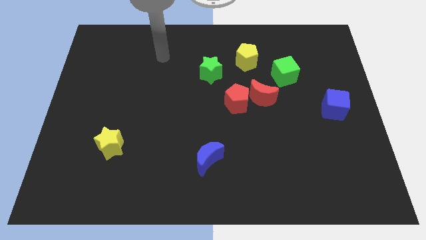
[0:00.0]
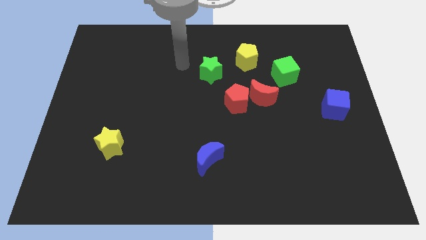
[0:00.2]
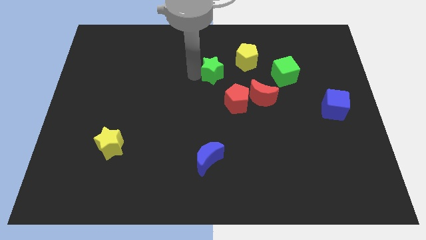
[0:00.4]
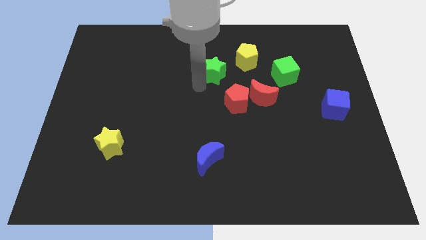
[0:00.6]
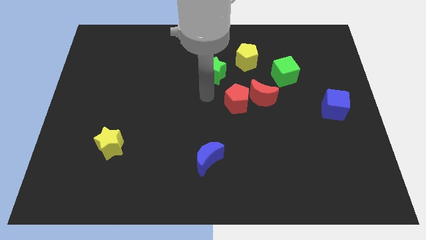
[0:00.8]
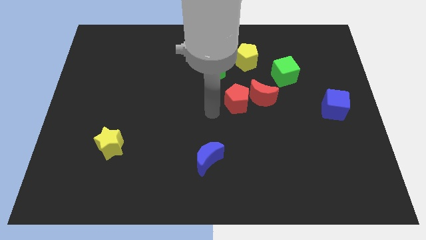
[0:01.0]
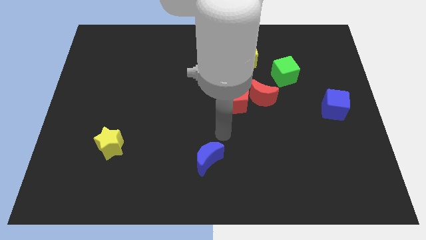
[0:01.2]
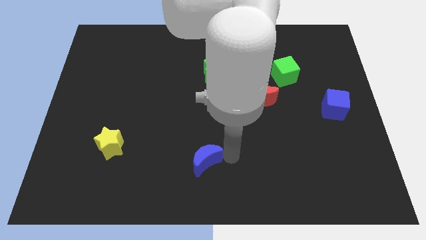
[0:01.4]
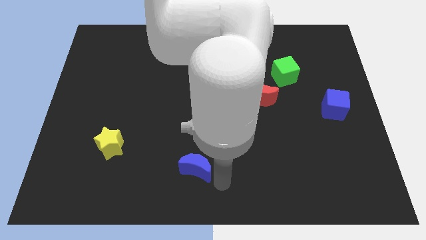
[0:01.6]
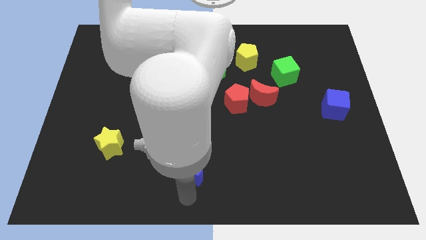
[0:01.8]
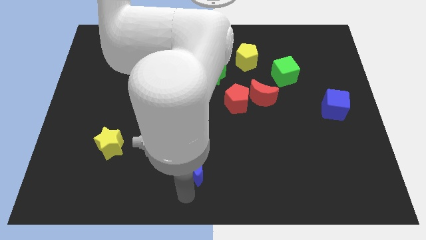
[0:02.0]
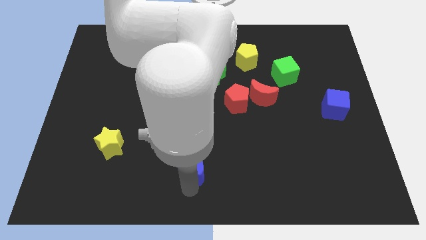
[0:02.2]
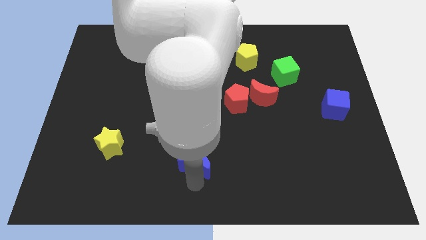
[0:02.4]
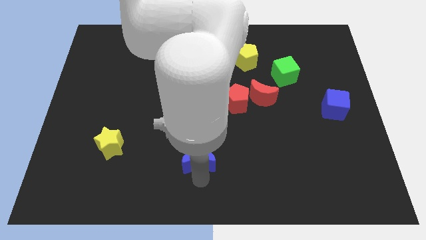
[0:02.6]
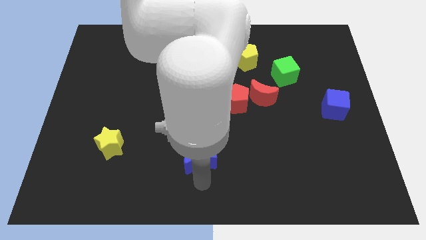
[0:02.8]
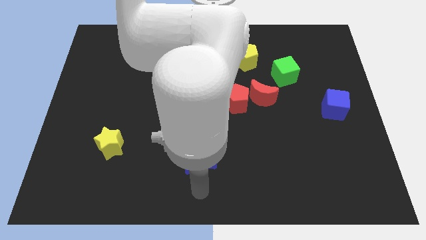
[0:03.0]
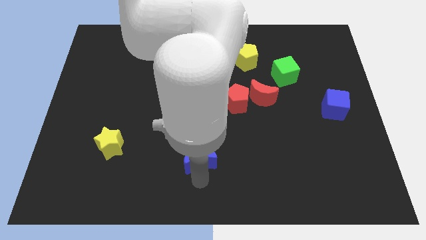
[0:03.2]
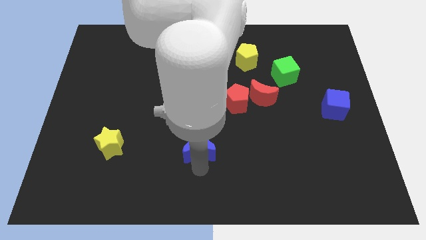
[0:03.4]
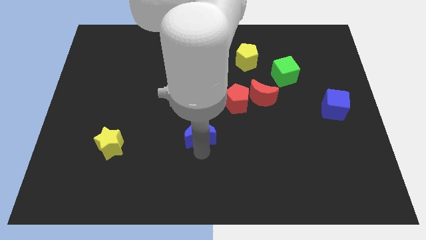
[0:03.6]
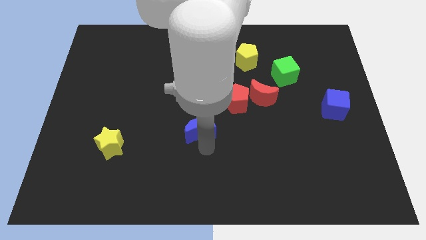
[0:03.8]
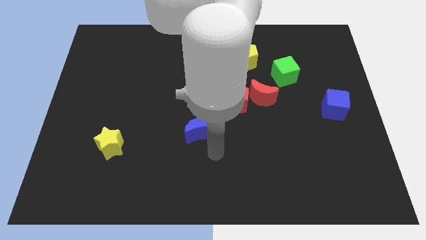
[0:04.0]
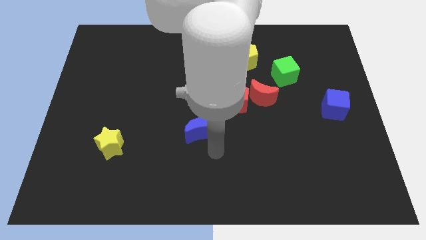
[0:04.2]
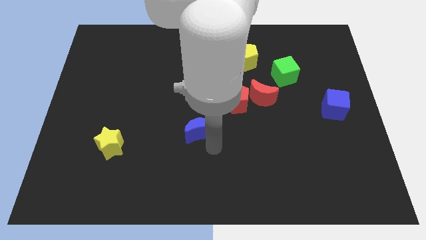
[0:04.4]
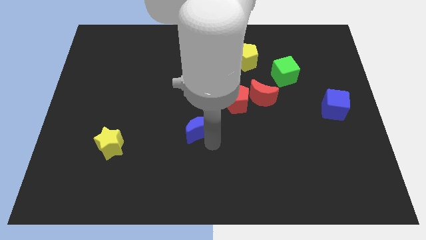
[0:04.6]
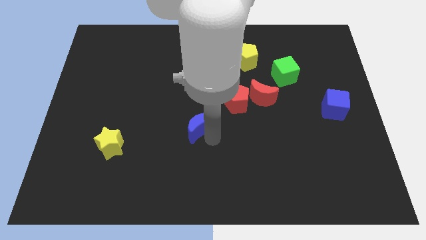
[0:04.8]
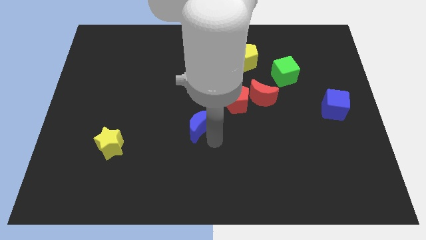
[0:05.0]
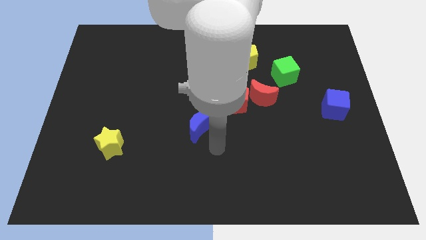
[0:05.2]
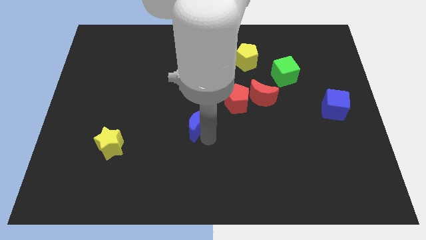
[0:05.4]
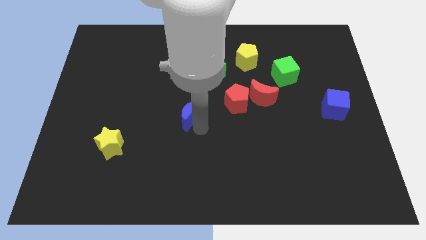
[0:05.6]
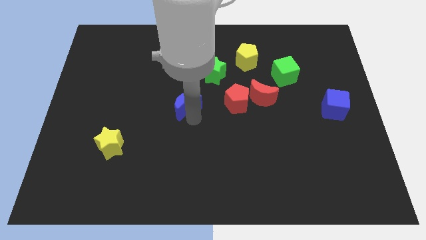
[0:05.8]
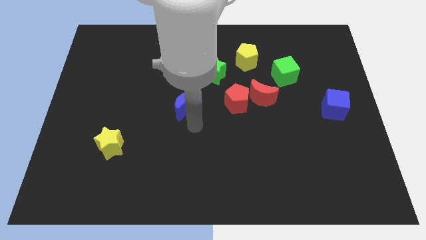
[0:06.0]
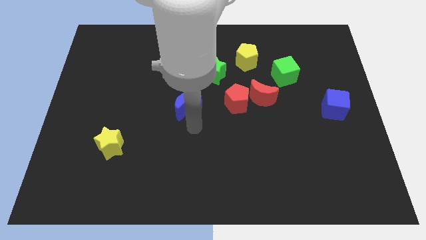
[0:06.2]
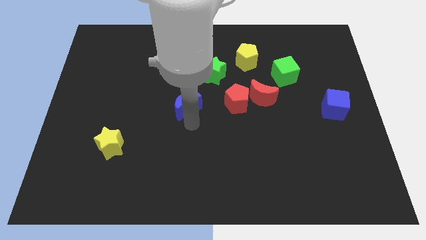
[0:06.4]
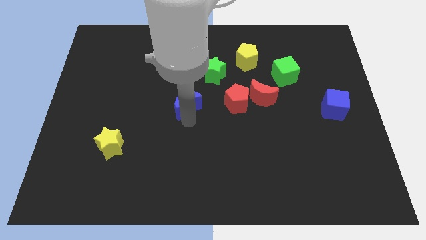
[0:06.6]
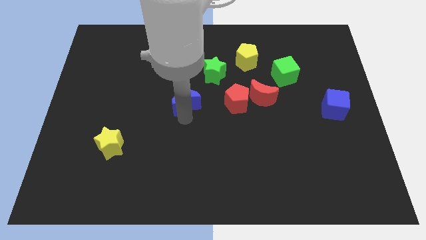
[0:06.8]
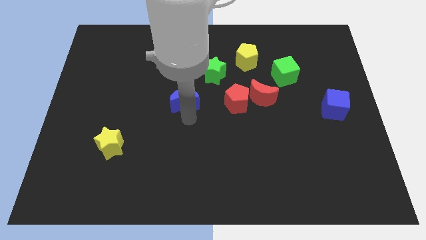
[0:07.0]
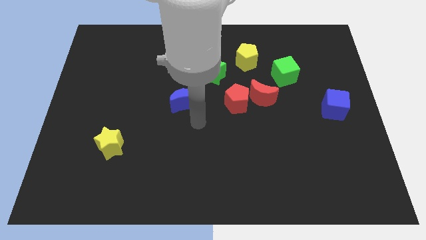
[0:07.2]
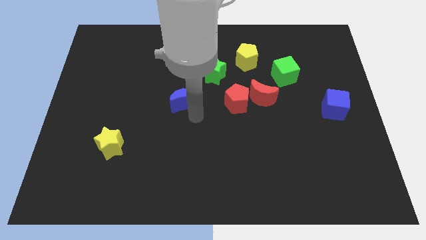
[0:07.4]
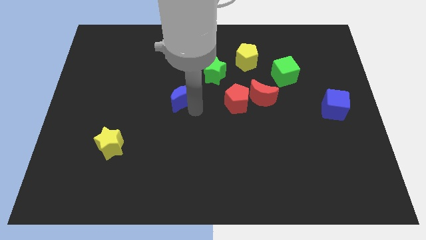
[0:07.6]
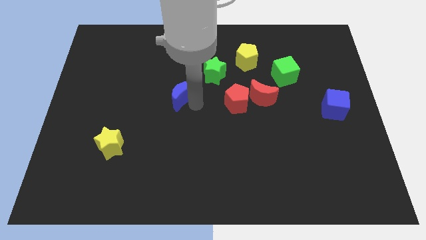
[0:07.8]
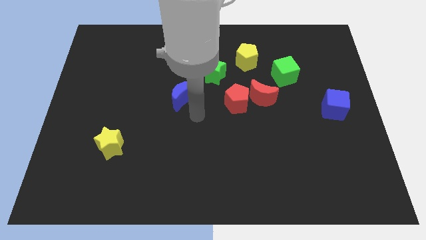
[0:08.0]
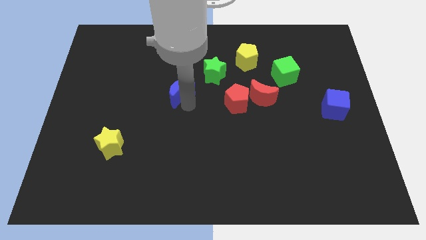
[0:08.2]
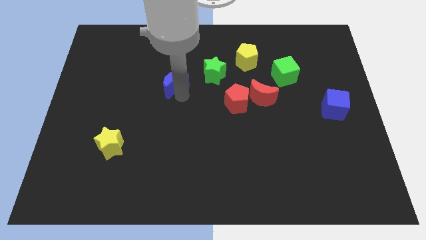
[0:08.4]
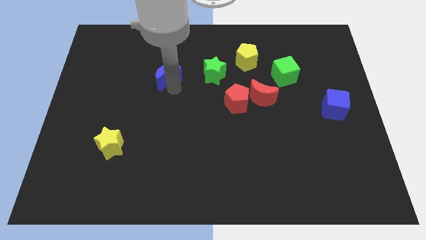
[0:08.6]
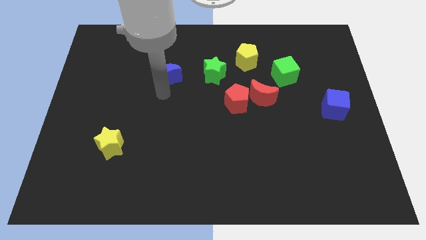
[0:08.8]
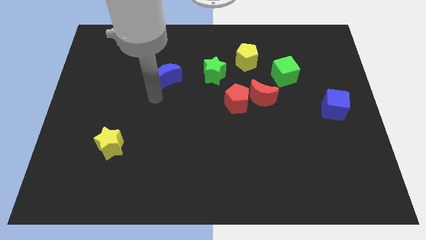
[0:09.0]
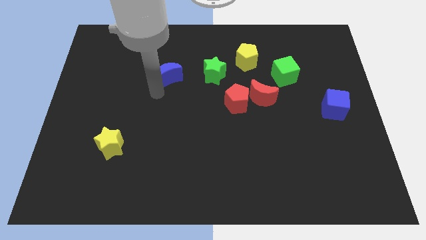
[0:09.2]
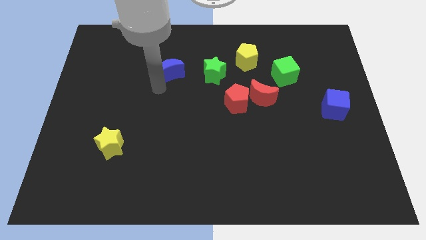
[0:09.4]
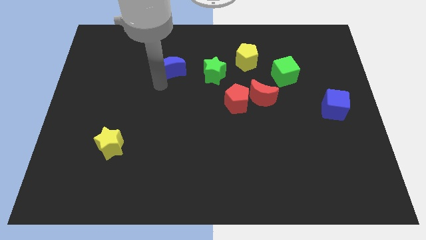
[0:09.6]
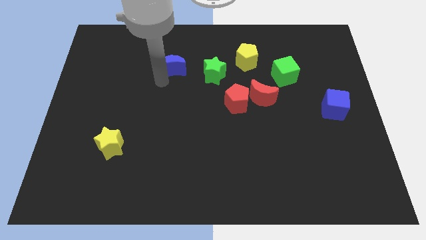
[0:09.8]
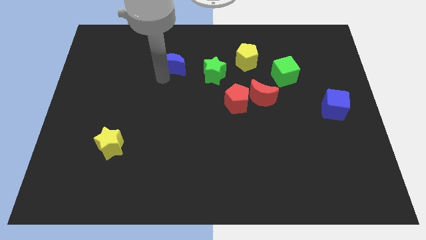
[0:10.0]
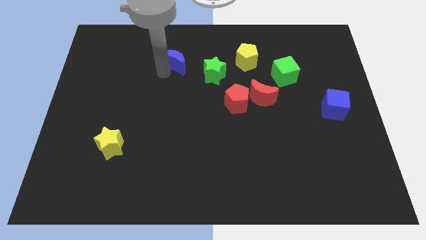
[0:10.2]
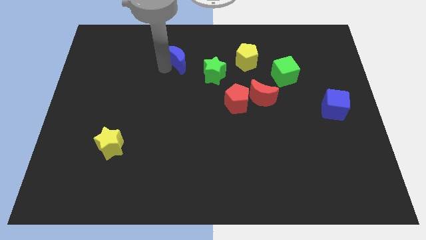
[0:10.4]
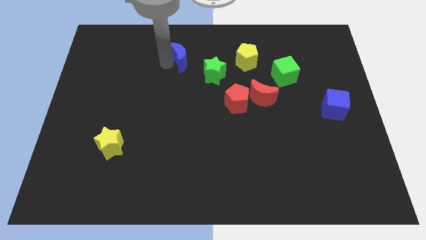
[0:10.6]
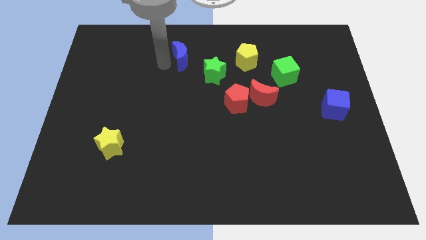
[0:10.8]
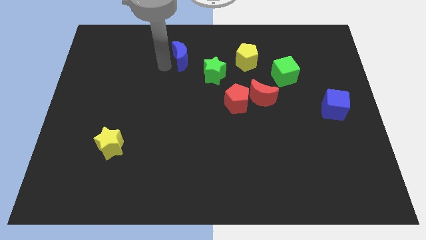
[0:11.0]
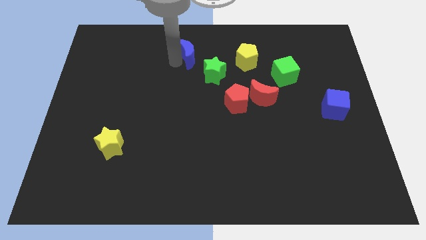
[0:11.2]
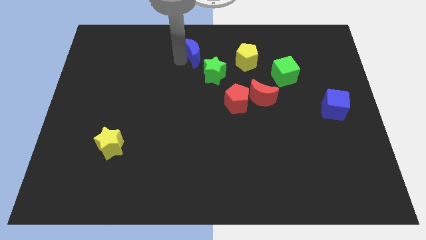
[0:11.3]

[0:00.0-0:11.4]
move the blue moon to the top
